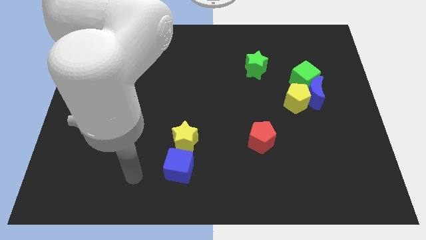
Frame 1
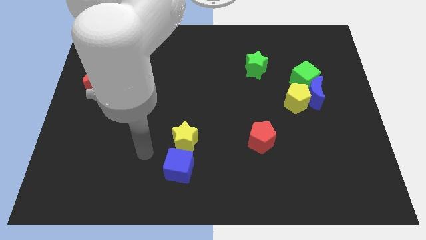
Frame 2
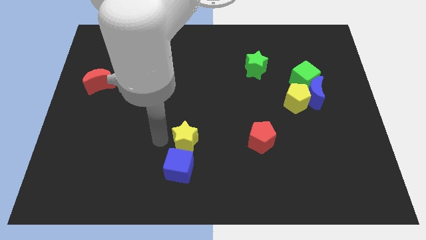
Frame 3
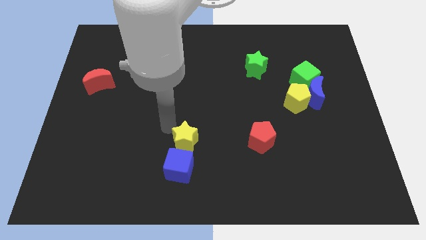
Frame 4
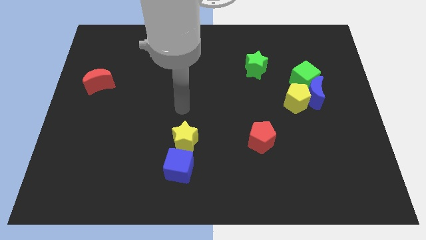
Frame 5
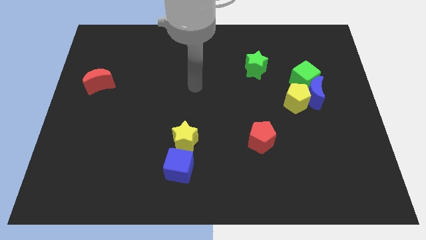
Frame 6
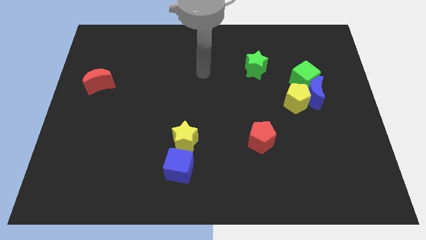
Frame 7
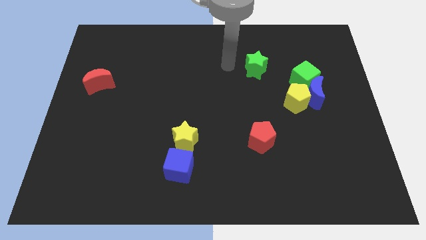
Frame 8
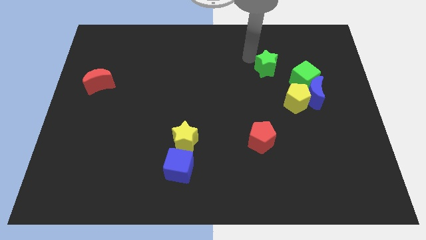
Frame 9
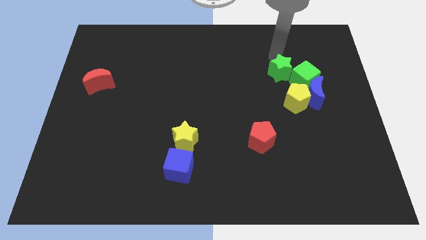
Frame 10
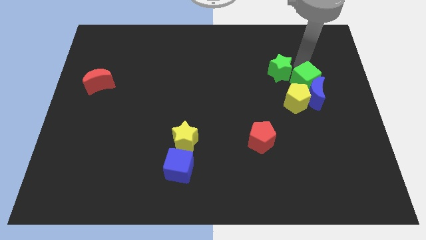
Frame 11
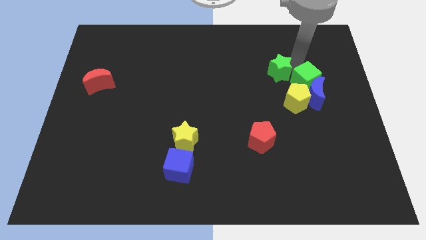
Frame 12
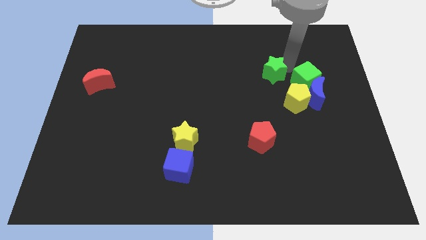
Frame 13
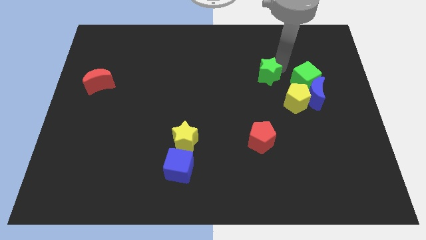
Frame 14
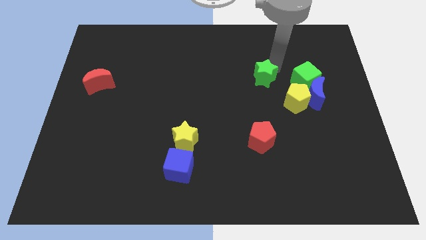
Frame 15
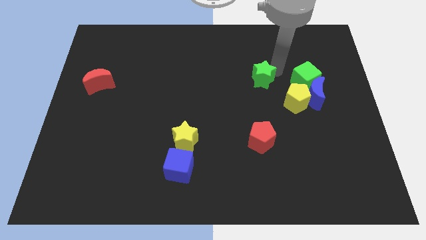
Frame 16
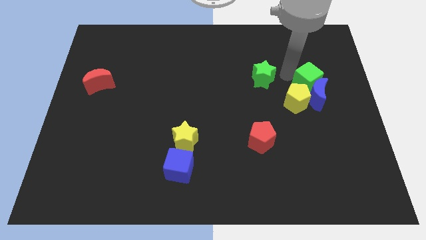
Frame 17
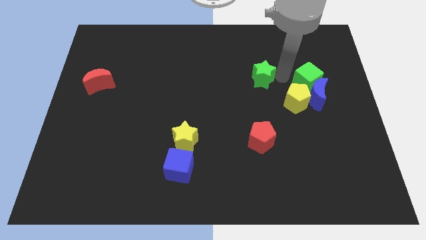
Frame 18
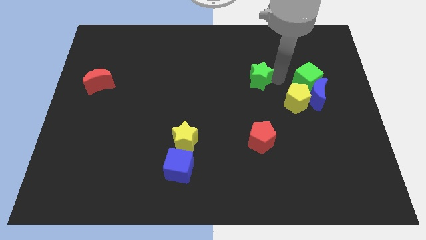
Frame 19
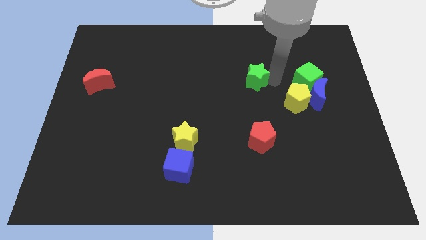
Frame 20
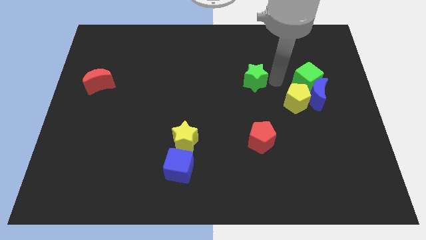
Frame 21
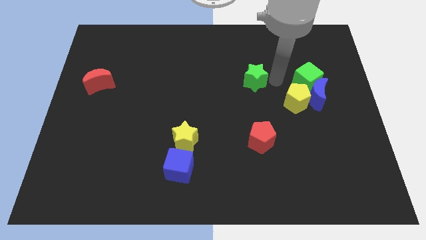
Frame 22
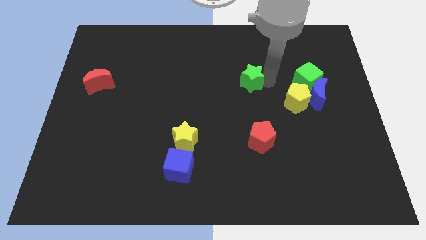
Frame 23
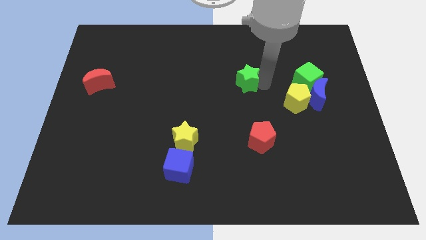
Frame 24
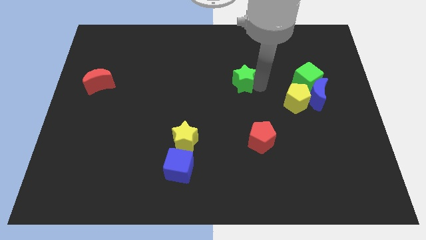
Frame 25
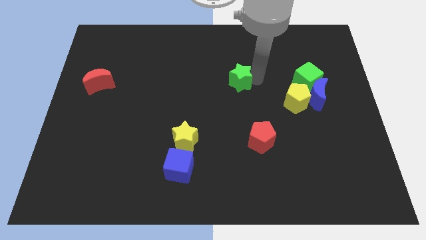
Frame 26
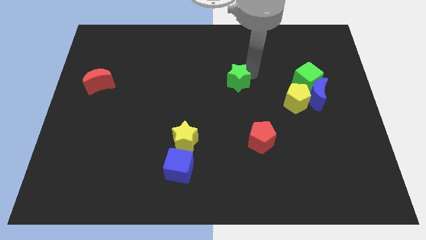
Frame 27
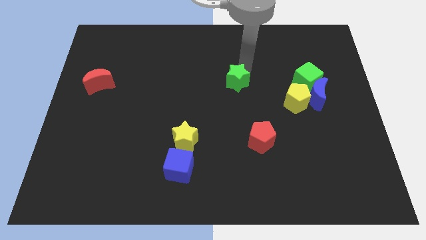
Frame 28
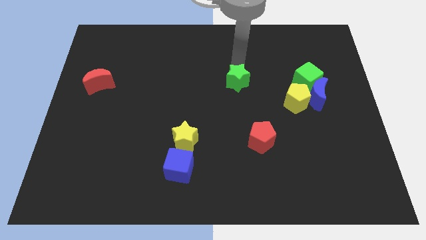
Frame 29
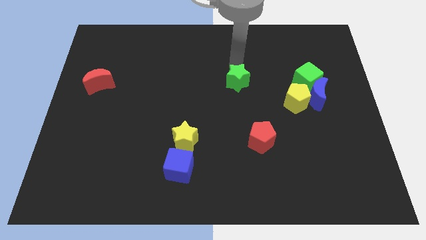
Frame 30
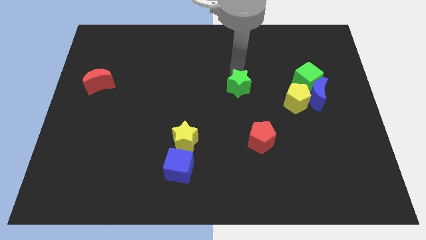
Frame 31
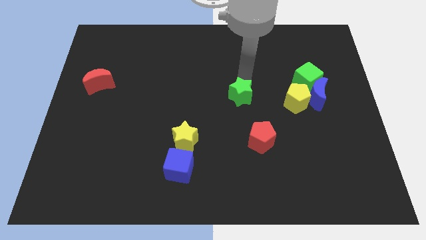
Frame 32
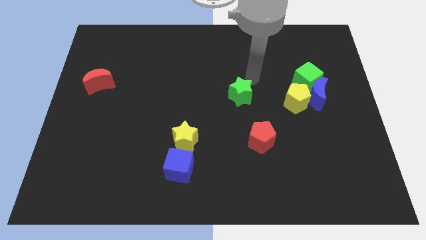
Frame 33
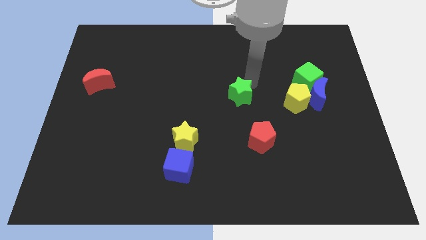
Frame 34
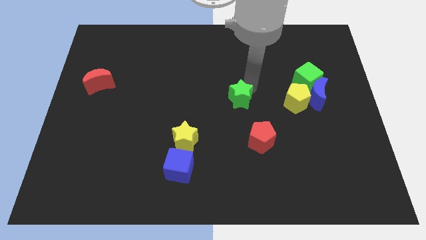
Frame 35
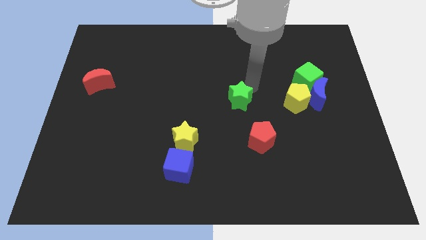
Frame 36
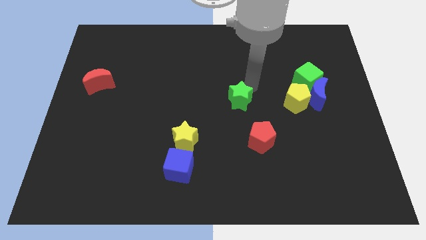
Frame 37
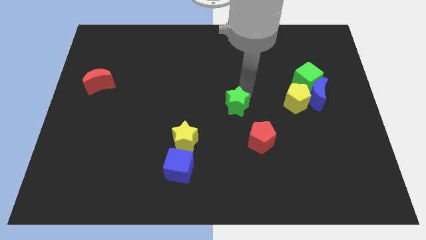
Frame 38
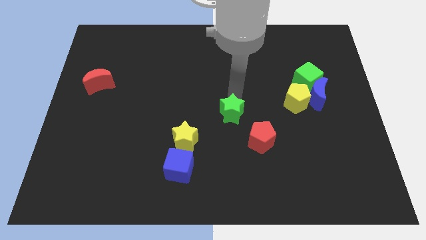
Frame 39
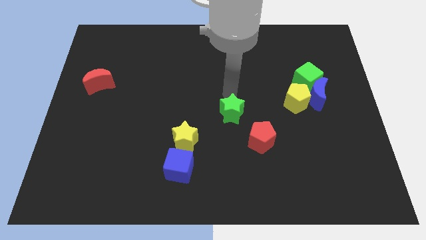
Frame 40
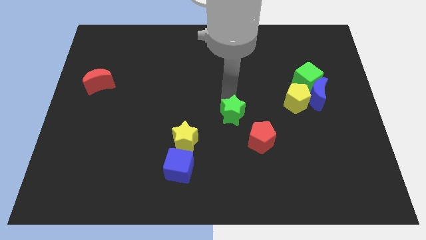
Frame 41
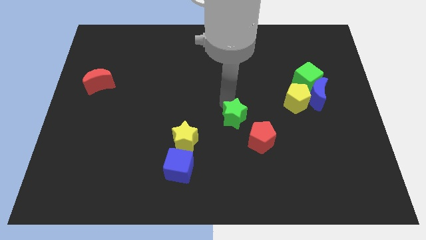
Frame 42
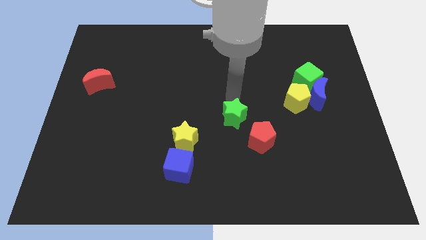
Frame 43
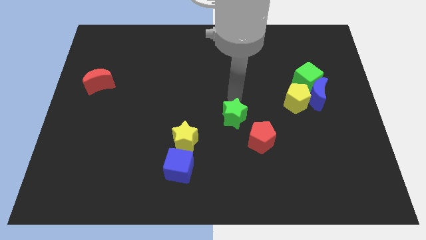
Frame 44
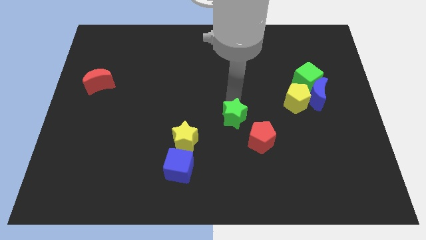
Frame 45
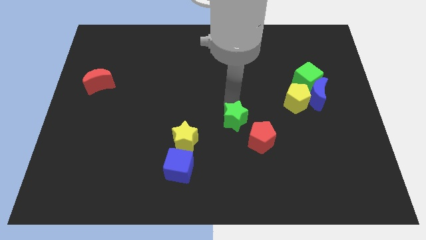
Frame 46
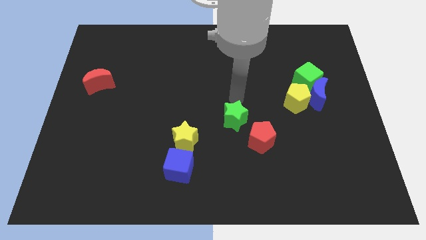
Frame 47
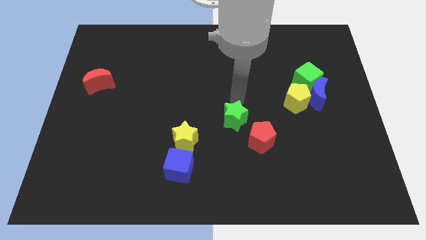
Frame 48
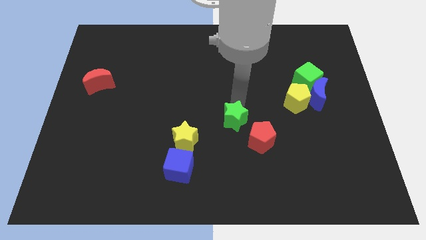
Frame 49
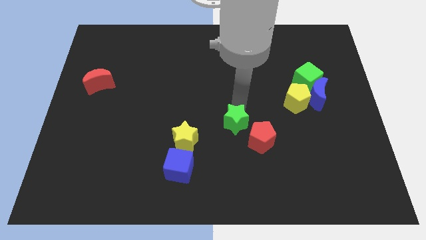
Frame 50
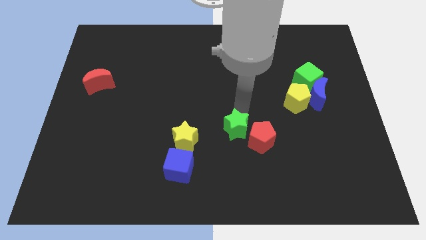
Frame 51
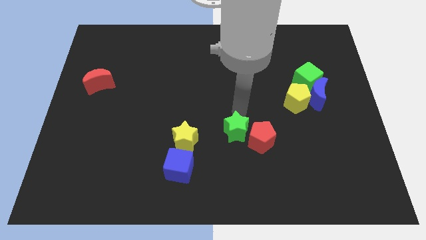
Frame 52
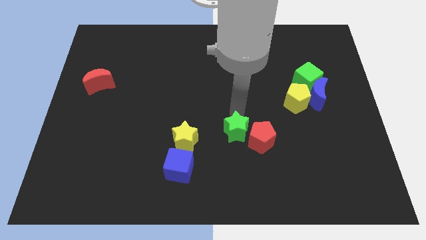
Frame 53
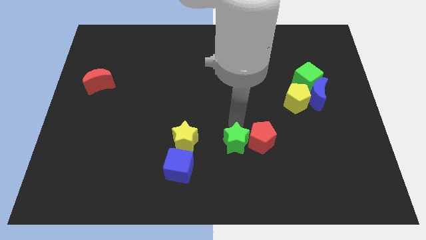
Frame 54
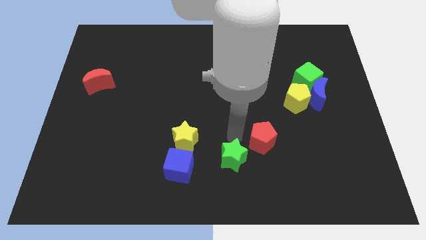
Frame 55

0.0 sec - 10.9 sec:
put the green star to the bottom side

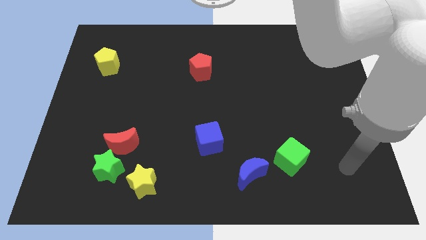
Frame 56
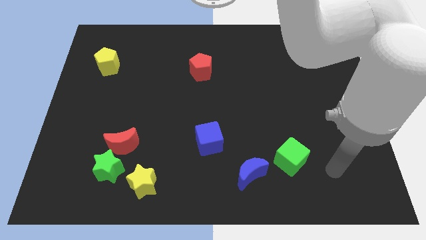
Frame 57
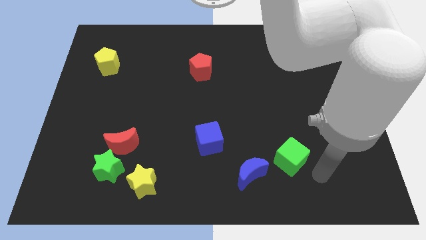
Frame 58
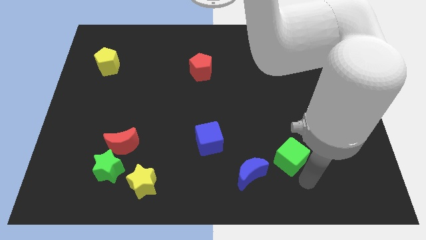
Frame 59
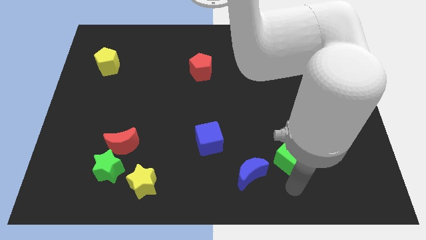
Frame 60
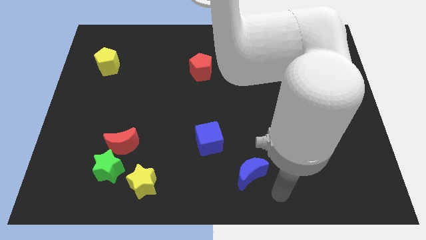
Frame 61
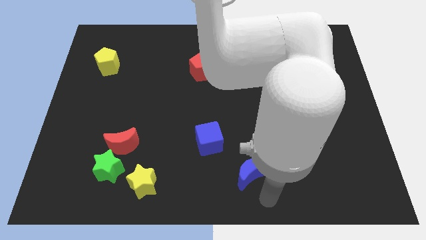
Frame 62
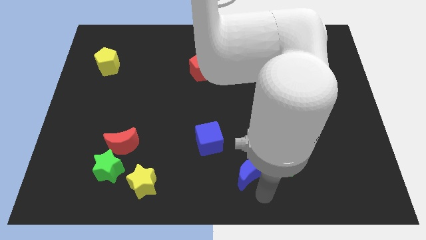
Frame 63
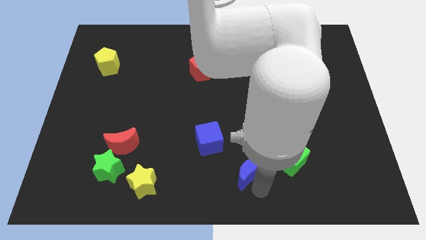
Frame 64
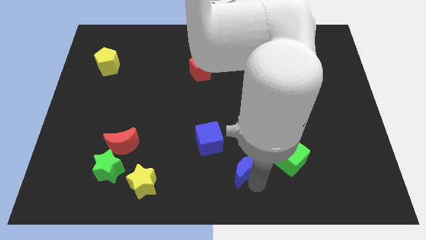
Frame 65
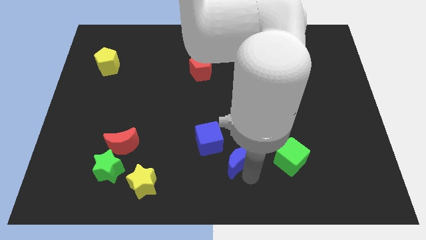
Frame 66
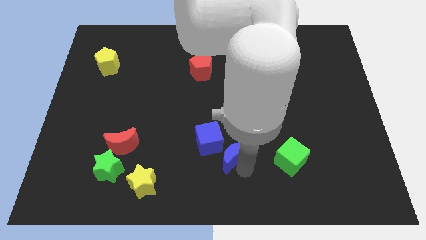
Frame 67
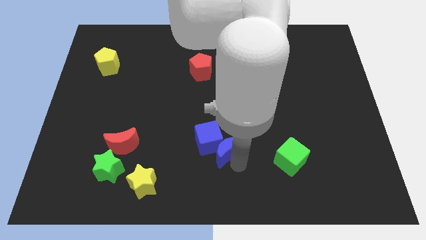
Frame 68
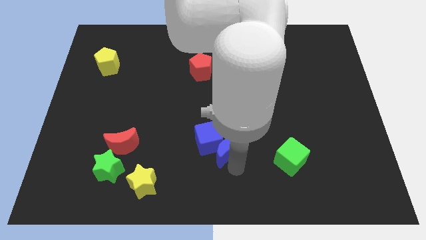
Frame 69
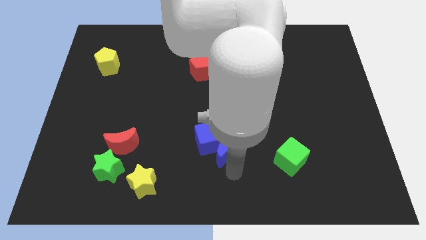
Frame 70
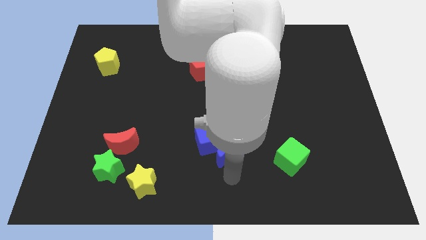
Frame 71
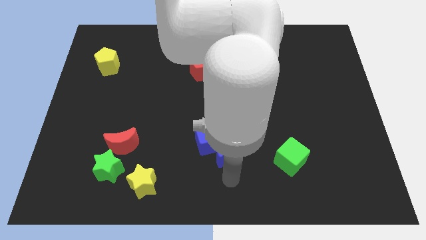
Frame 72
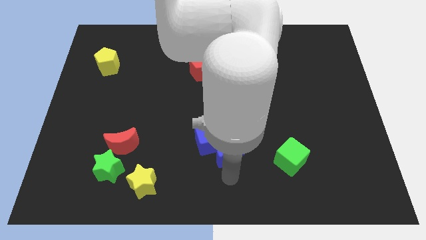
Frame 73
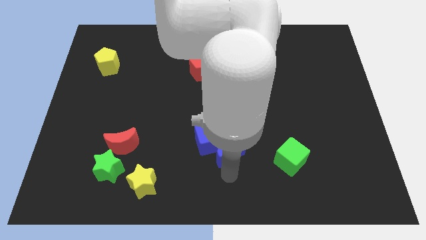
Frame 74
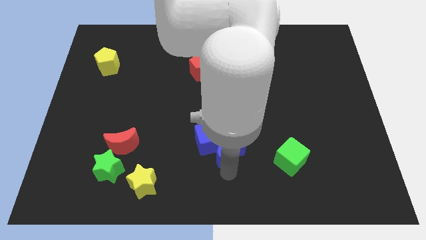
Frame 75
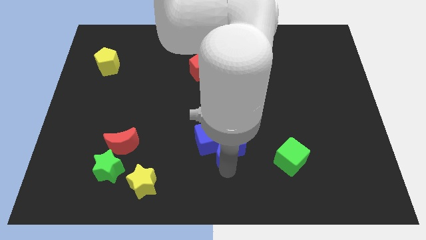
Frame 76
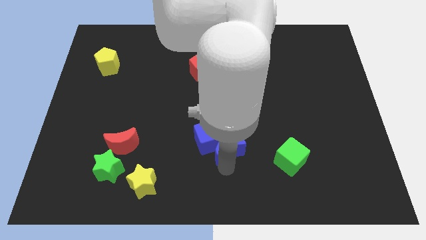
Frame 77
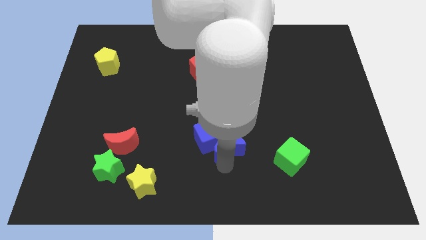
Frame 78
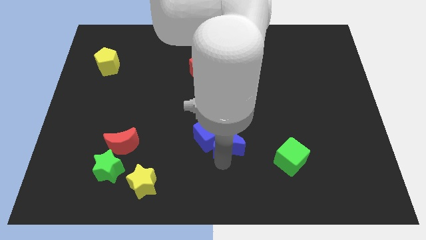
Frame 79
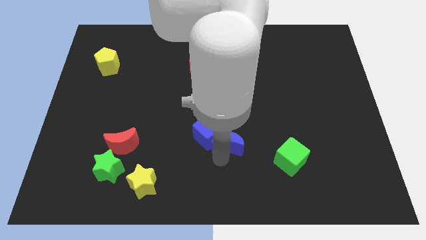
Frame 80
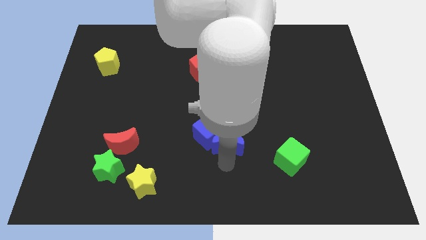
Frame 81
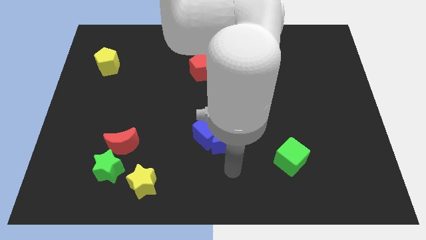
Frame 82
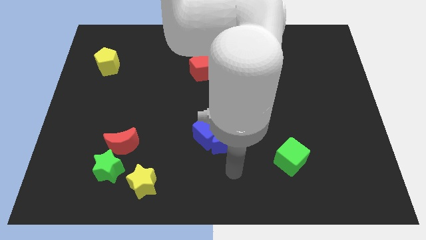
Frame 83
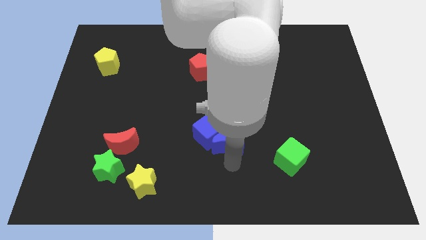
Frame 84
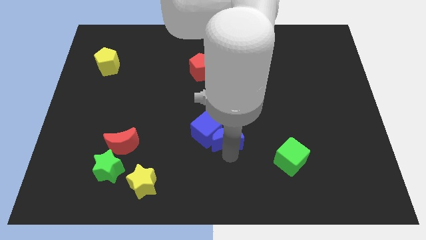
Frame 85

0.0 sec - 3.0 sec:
move the blue moon to the center
